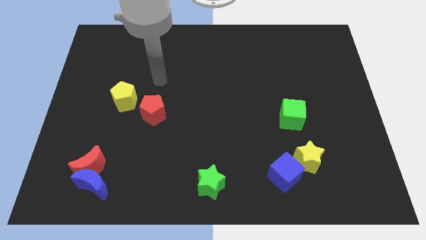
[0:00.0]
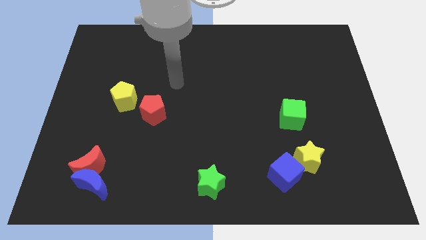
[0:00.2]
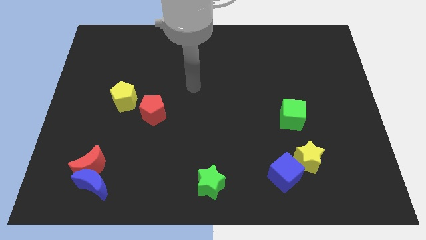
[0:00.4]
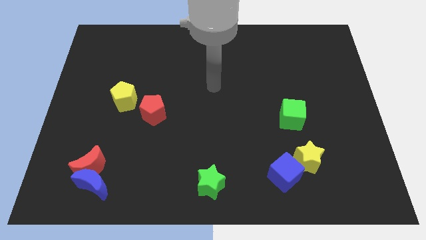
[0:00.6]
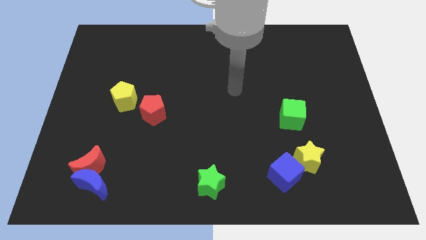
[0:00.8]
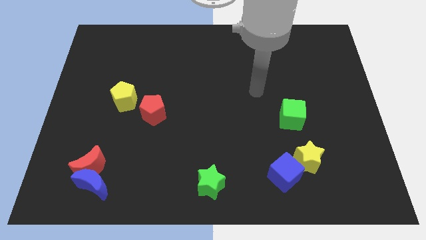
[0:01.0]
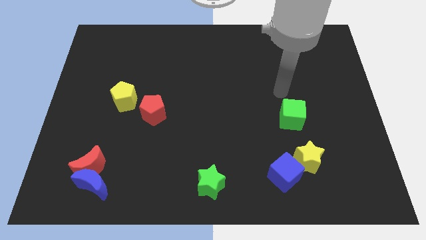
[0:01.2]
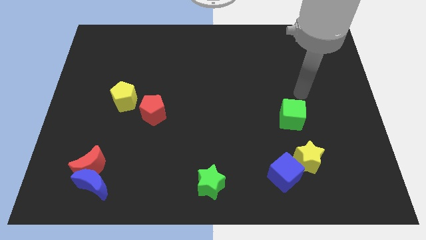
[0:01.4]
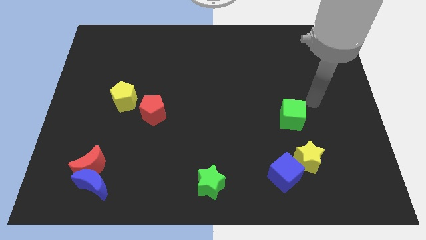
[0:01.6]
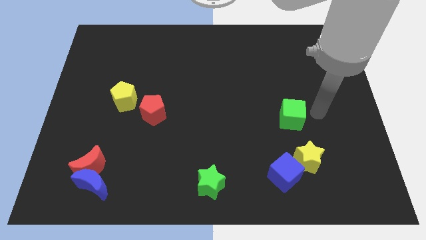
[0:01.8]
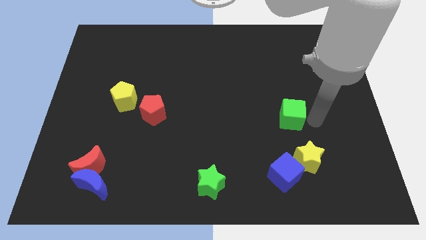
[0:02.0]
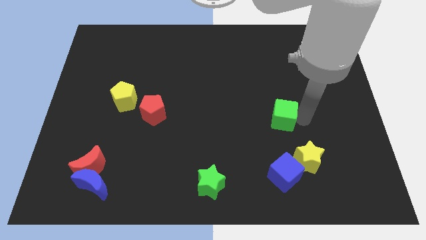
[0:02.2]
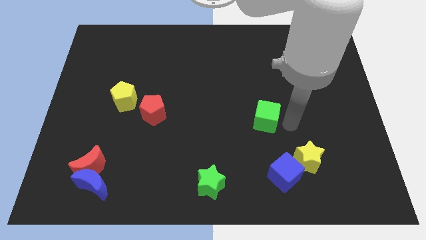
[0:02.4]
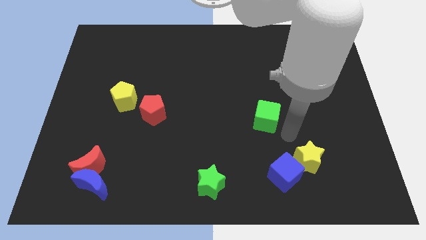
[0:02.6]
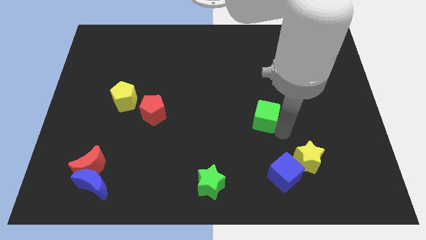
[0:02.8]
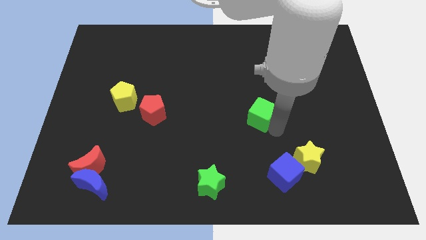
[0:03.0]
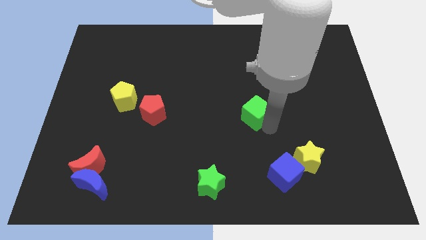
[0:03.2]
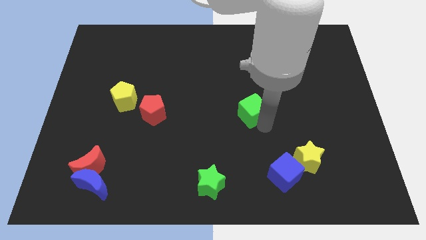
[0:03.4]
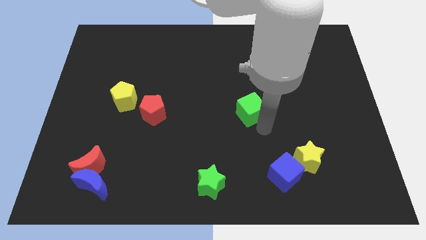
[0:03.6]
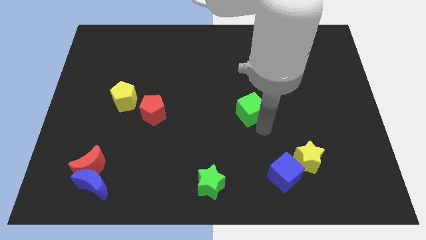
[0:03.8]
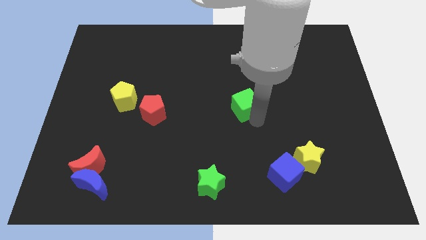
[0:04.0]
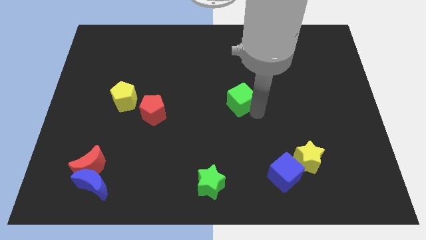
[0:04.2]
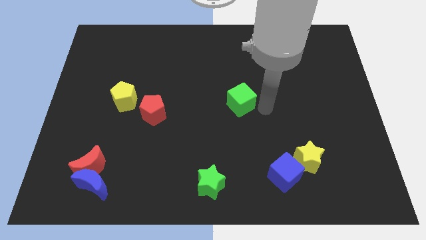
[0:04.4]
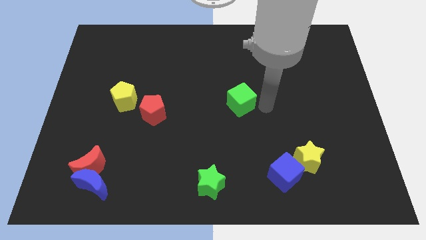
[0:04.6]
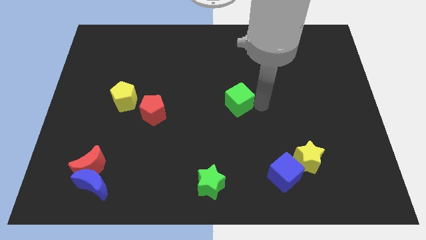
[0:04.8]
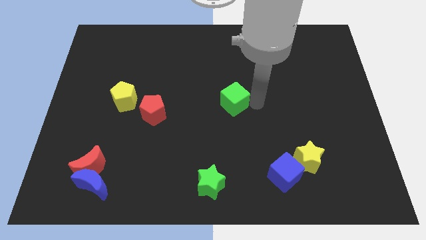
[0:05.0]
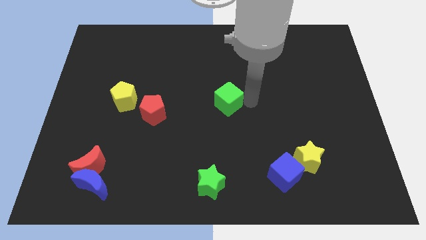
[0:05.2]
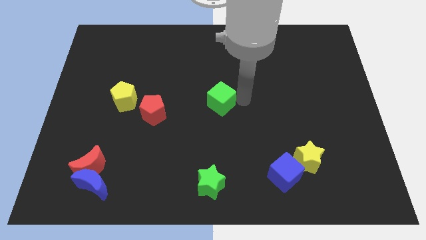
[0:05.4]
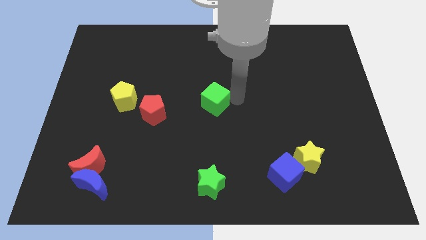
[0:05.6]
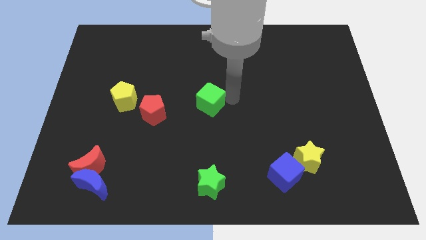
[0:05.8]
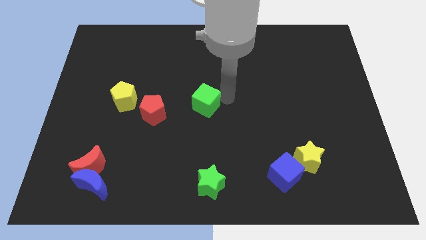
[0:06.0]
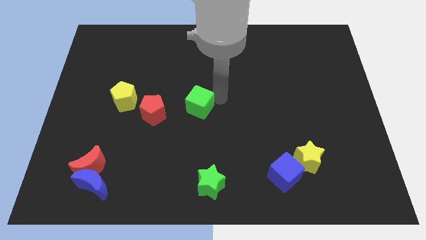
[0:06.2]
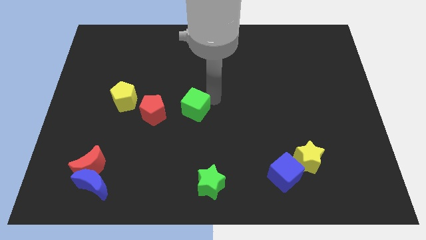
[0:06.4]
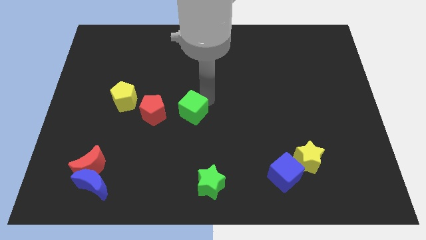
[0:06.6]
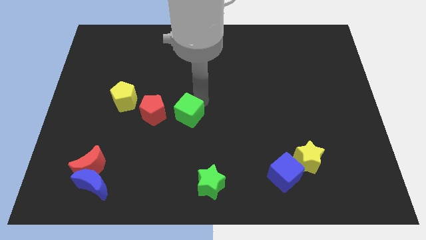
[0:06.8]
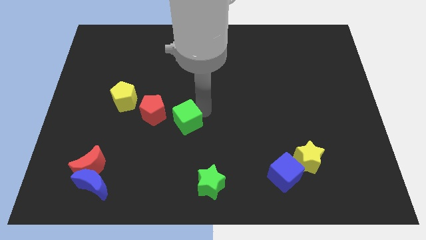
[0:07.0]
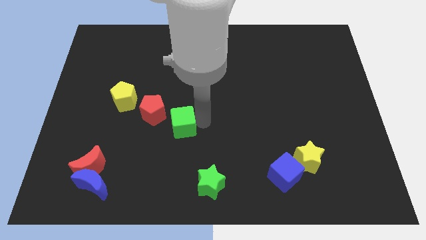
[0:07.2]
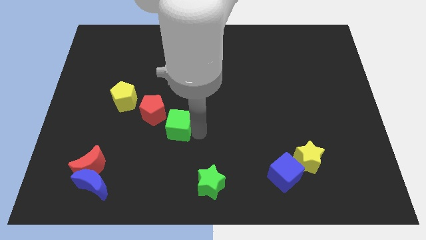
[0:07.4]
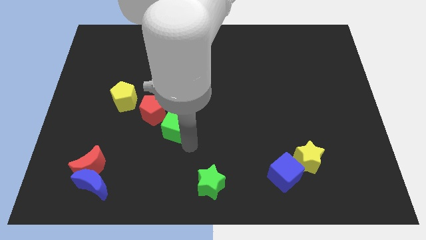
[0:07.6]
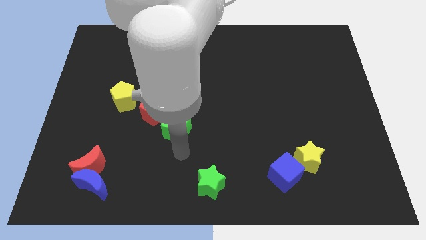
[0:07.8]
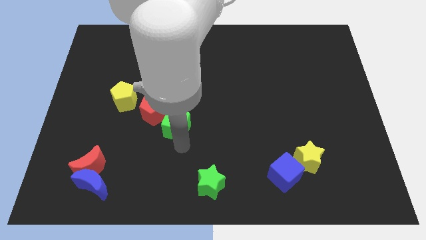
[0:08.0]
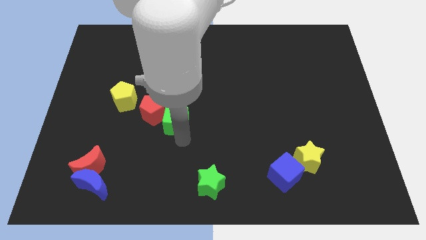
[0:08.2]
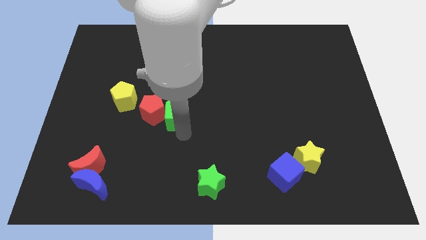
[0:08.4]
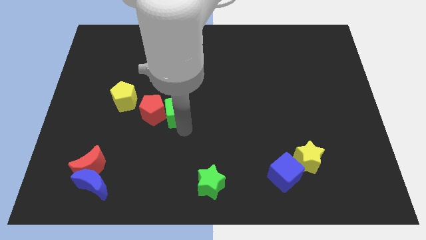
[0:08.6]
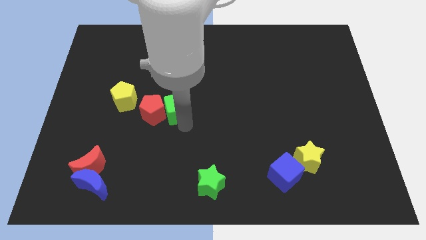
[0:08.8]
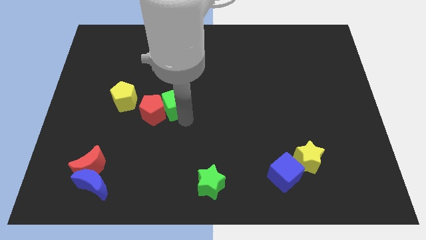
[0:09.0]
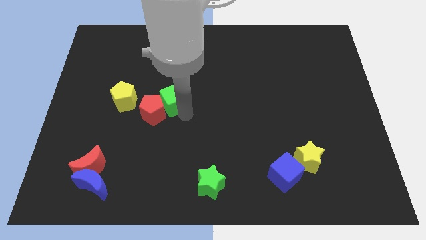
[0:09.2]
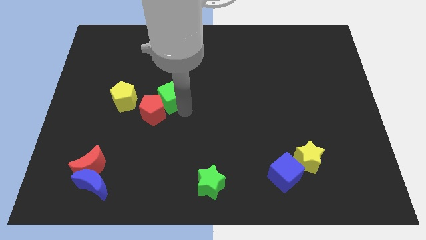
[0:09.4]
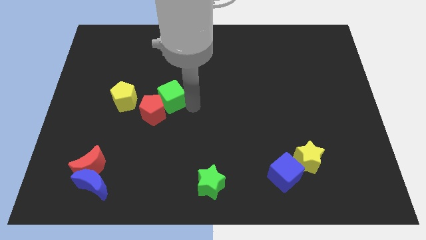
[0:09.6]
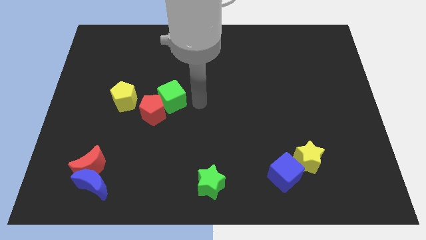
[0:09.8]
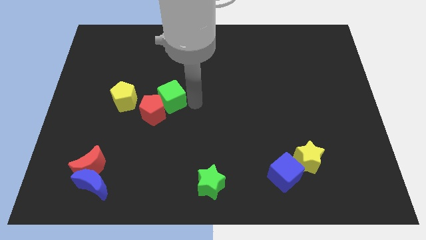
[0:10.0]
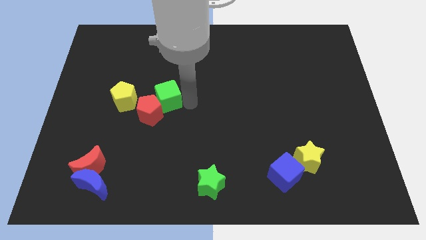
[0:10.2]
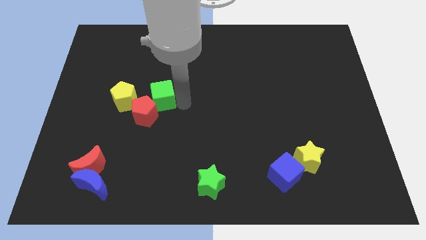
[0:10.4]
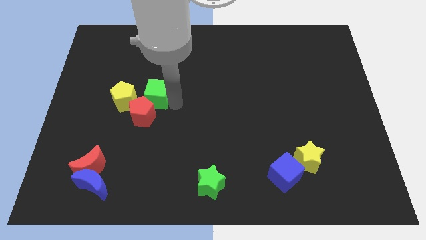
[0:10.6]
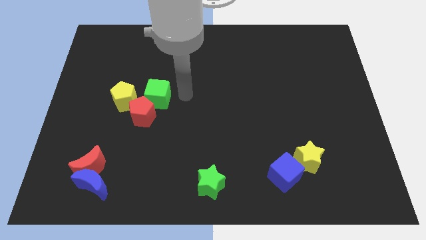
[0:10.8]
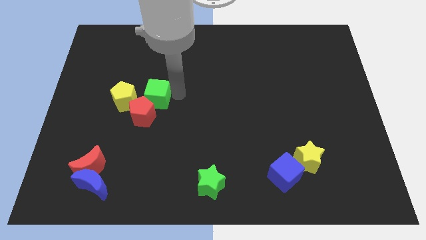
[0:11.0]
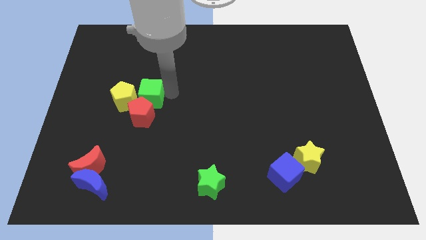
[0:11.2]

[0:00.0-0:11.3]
slide the green cube close to the yellow pentagon

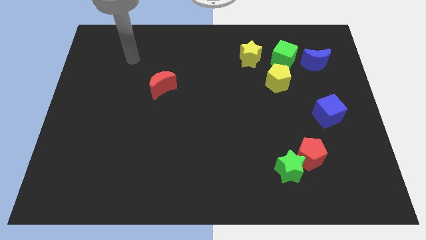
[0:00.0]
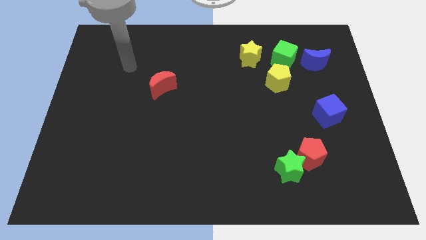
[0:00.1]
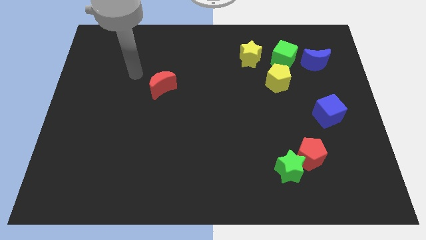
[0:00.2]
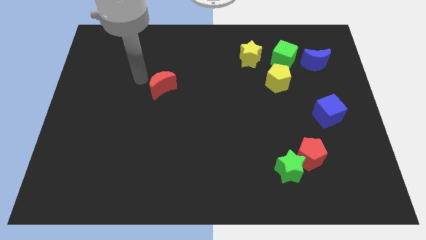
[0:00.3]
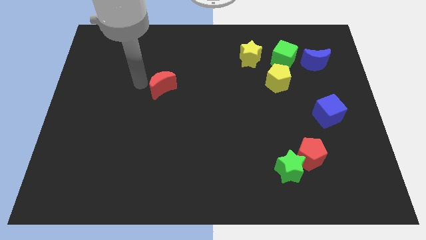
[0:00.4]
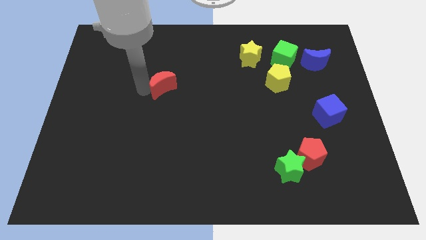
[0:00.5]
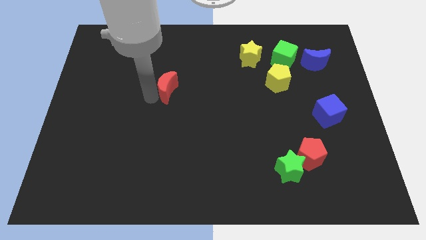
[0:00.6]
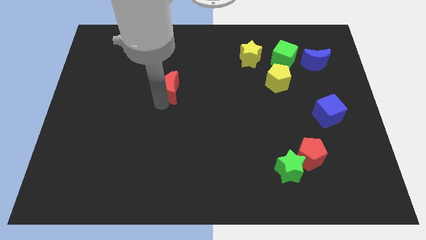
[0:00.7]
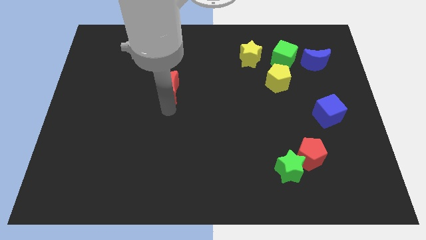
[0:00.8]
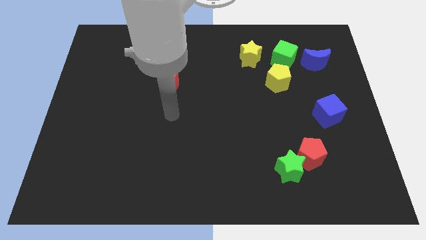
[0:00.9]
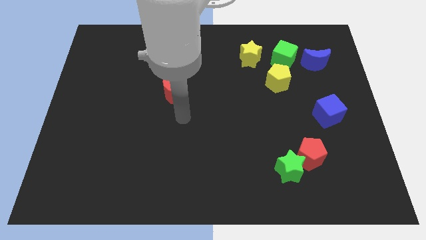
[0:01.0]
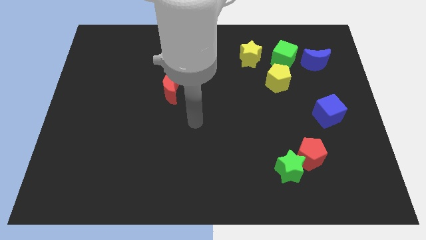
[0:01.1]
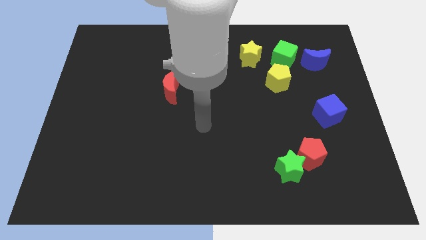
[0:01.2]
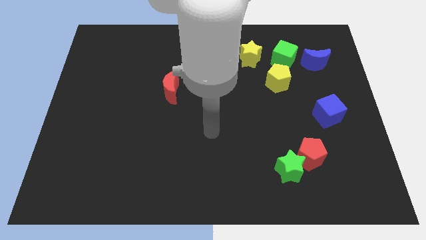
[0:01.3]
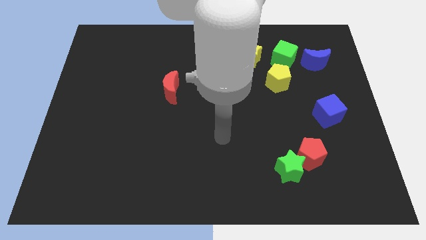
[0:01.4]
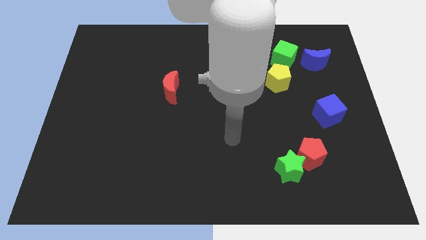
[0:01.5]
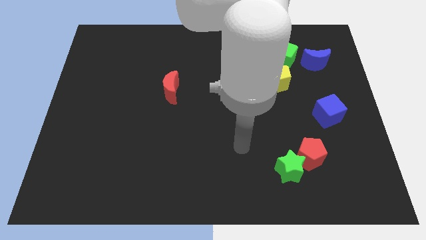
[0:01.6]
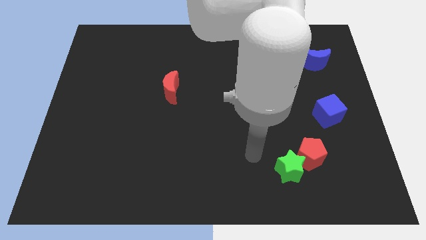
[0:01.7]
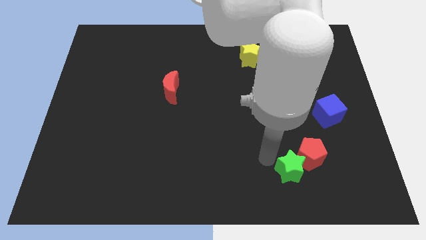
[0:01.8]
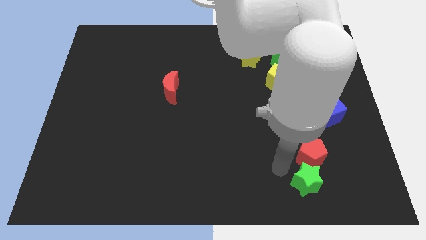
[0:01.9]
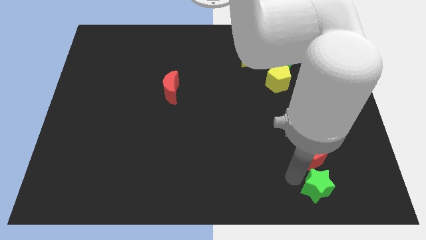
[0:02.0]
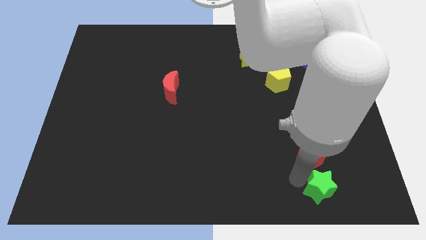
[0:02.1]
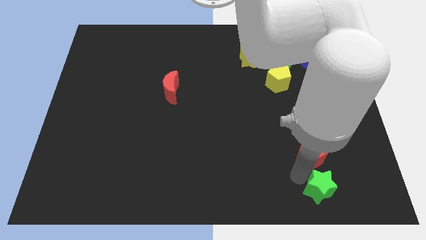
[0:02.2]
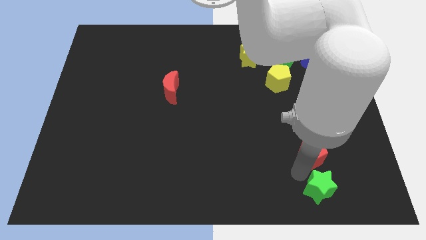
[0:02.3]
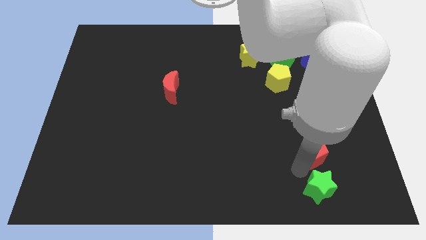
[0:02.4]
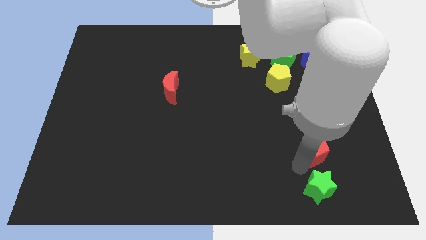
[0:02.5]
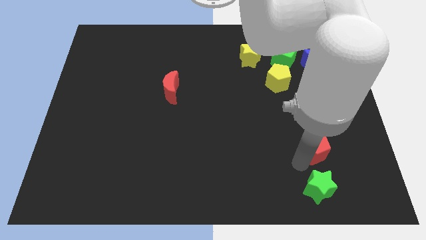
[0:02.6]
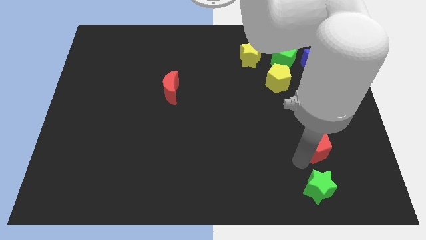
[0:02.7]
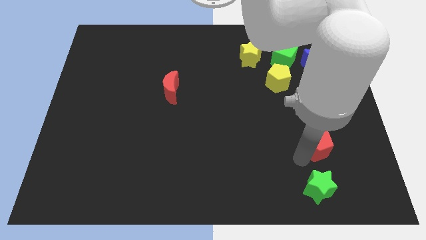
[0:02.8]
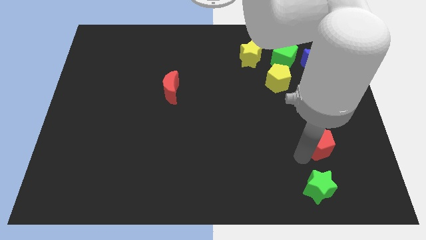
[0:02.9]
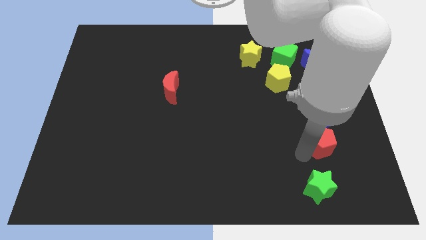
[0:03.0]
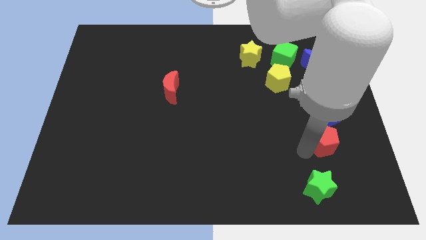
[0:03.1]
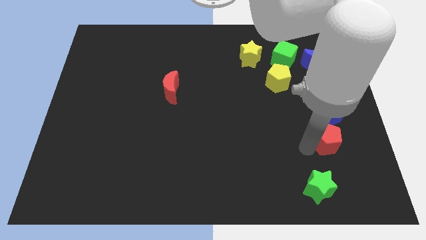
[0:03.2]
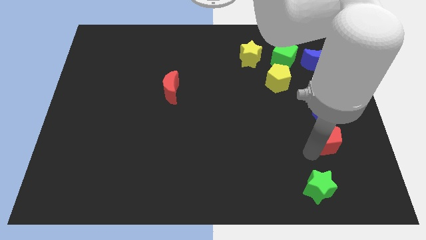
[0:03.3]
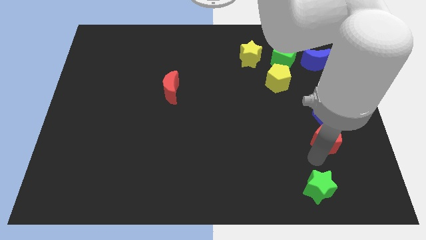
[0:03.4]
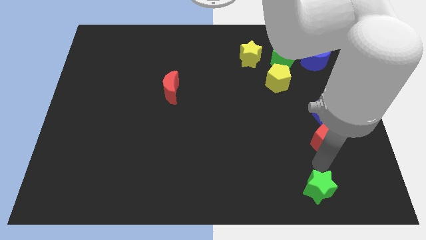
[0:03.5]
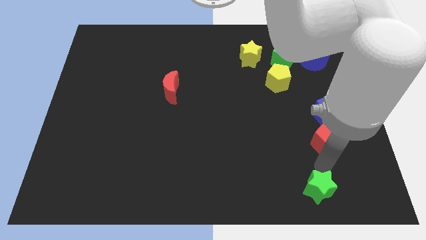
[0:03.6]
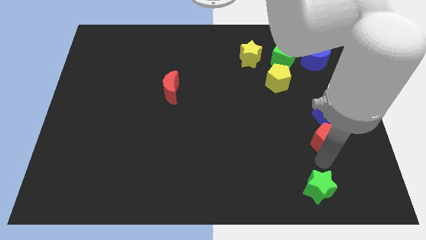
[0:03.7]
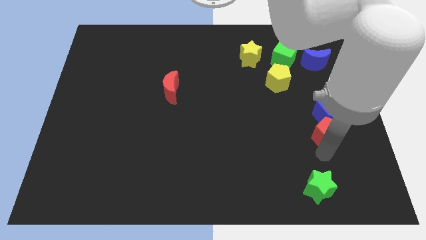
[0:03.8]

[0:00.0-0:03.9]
put the red pentagon to the blue cube
